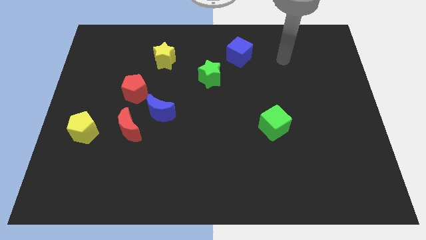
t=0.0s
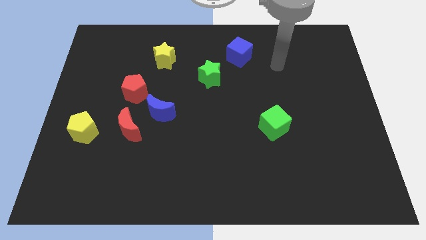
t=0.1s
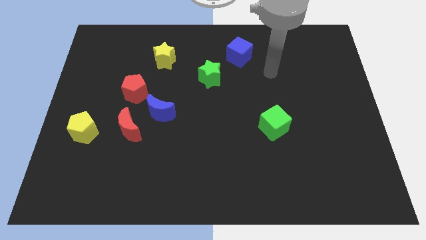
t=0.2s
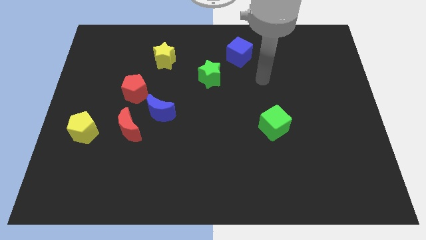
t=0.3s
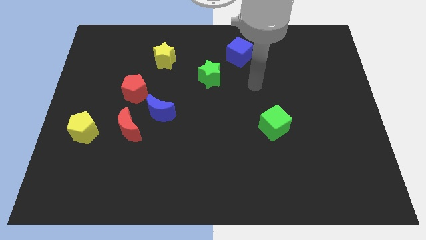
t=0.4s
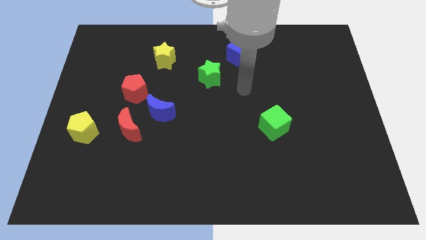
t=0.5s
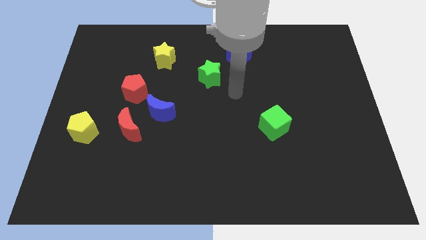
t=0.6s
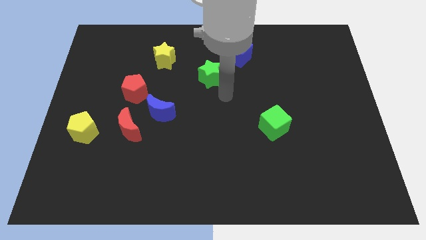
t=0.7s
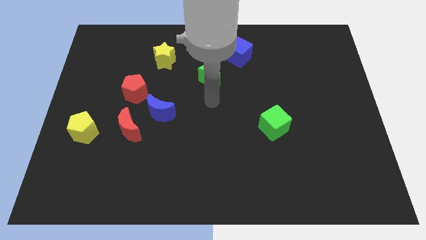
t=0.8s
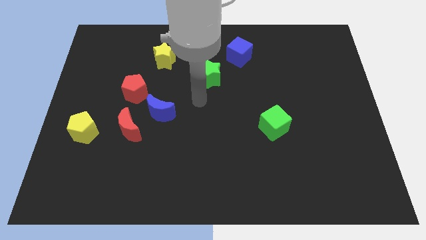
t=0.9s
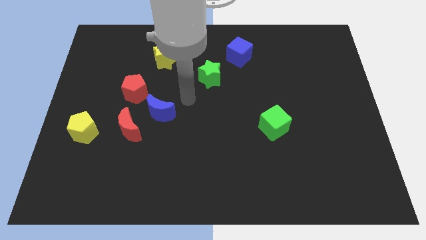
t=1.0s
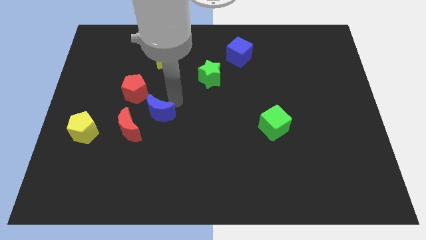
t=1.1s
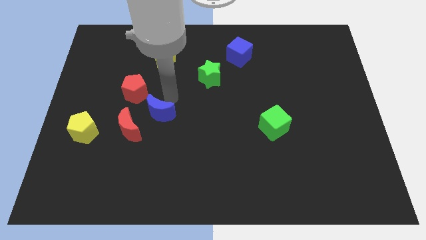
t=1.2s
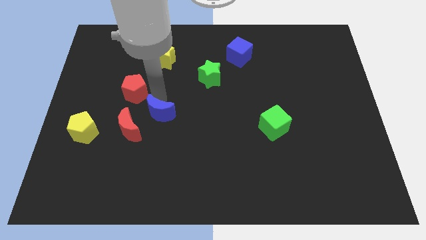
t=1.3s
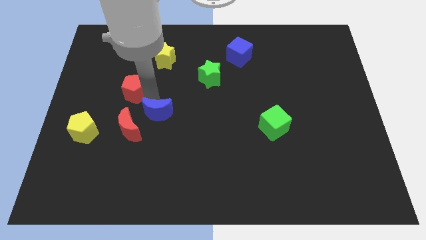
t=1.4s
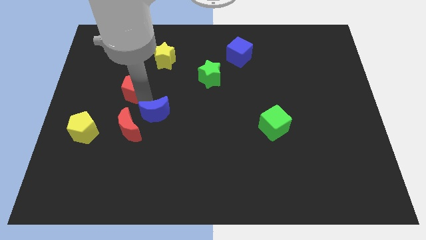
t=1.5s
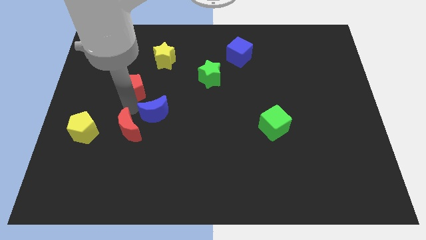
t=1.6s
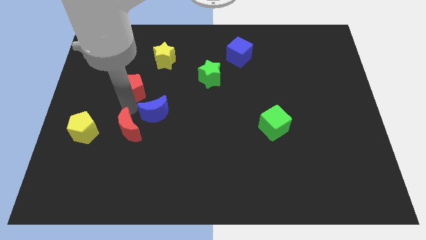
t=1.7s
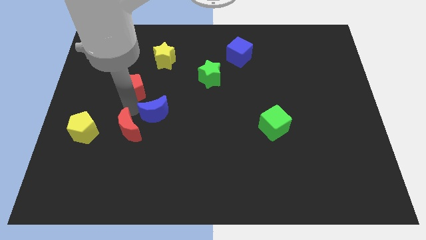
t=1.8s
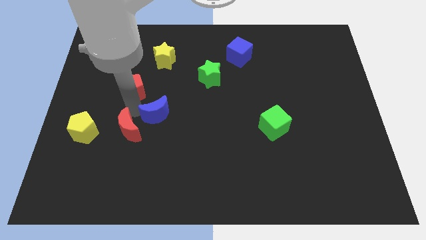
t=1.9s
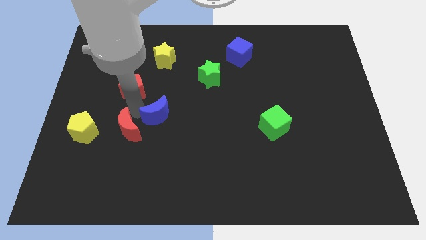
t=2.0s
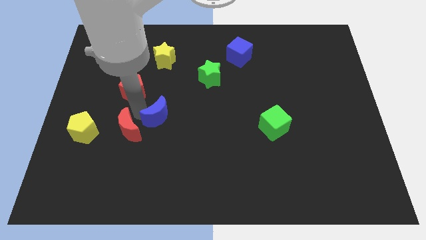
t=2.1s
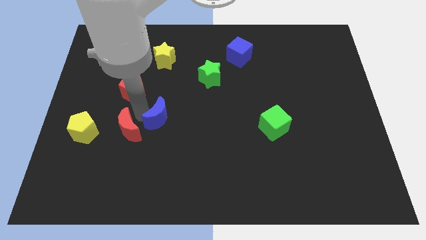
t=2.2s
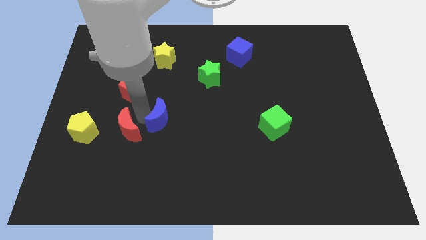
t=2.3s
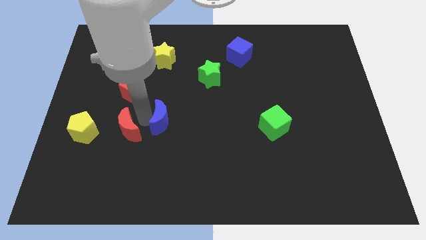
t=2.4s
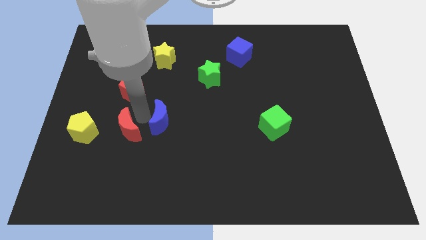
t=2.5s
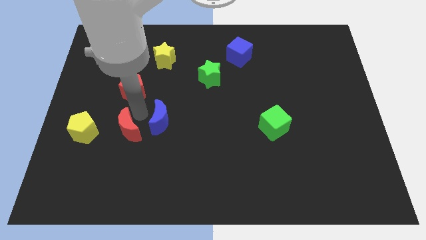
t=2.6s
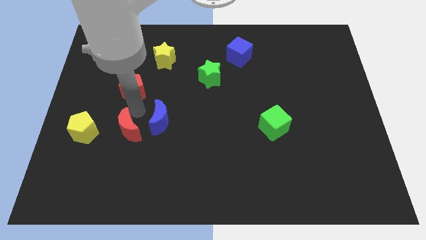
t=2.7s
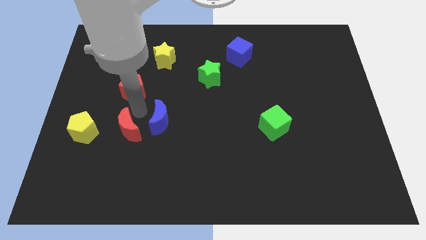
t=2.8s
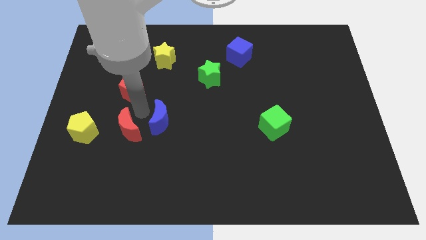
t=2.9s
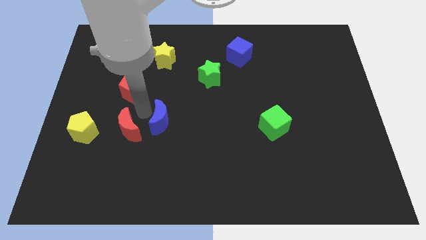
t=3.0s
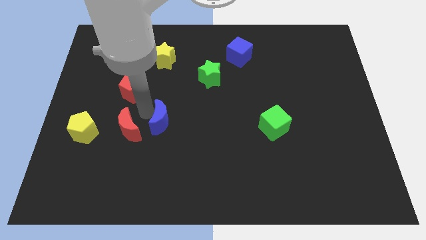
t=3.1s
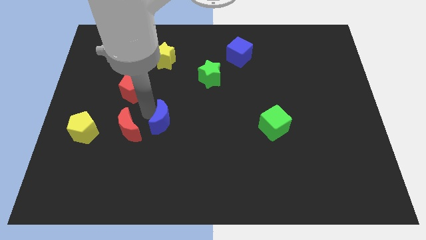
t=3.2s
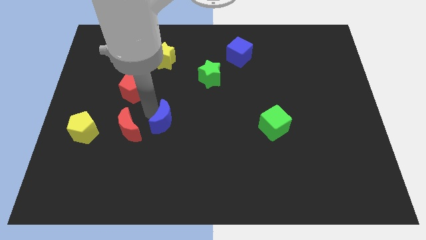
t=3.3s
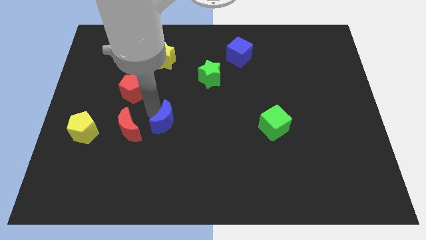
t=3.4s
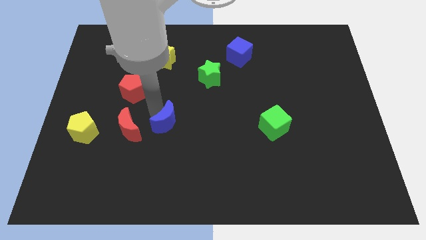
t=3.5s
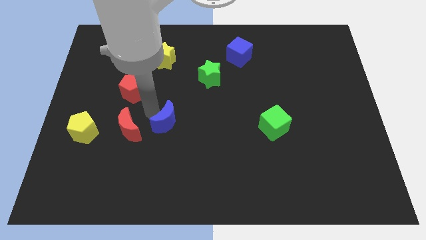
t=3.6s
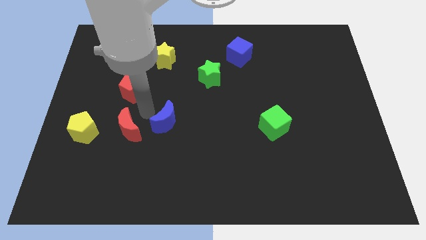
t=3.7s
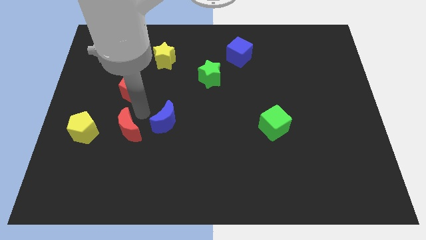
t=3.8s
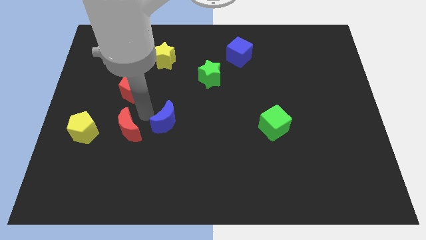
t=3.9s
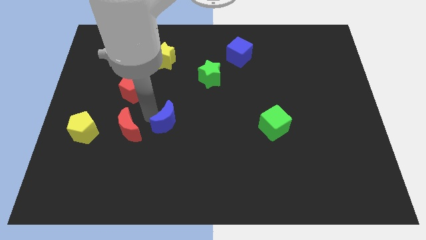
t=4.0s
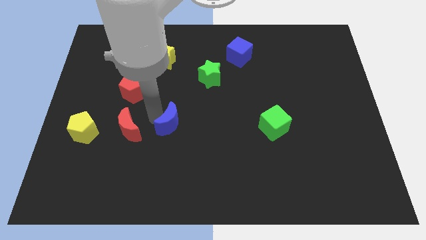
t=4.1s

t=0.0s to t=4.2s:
move the blue moon away from the red moon and red pentagon

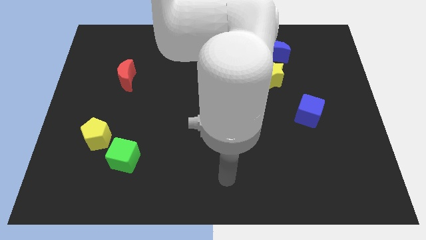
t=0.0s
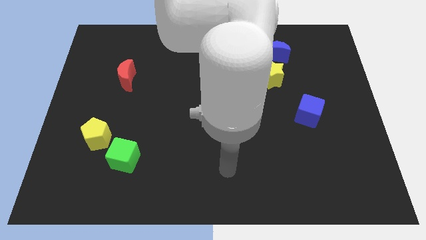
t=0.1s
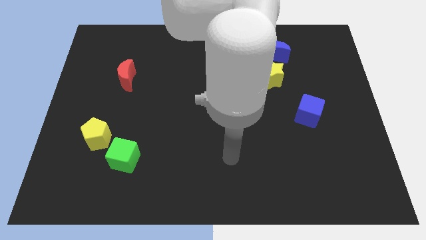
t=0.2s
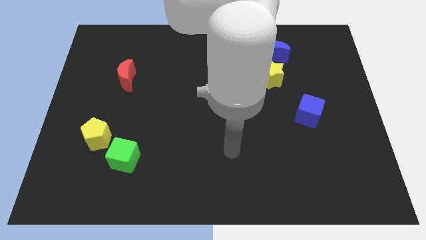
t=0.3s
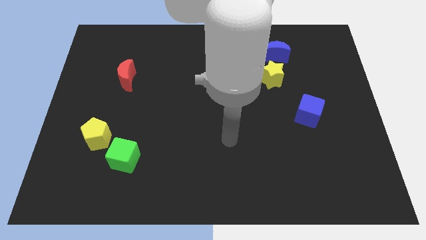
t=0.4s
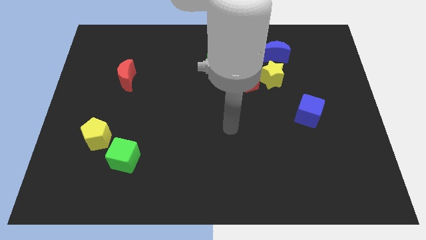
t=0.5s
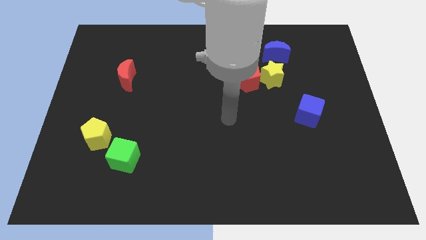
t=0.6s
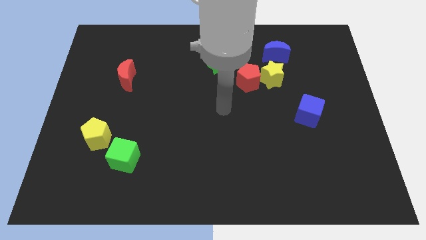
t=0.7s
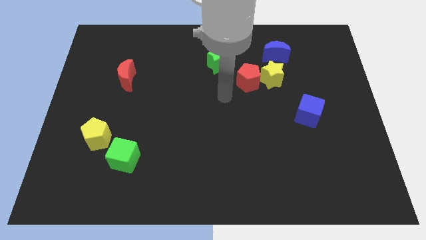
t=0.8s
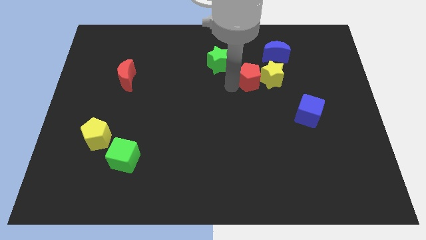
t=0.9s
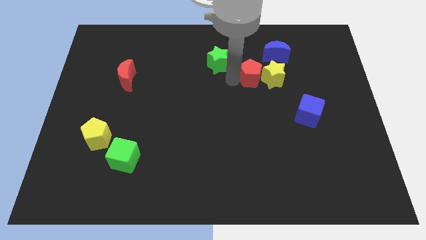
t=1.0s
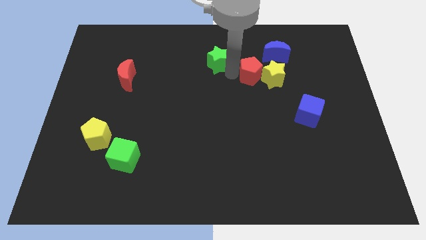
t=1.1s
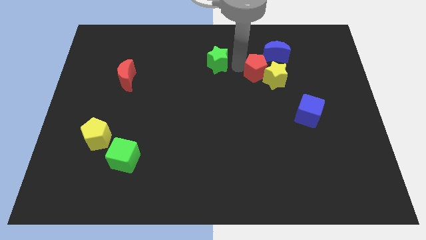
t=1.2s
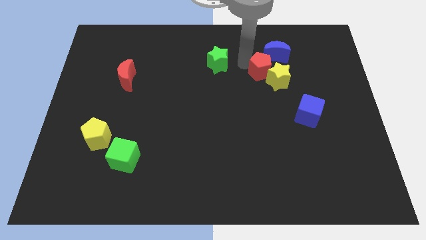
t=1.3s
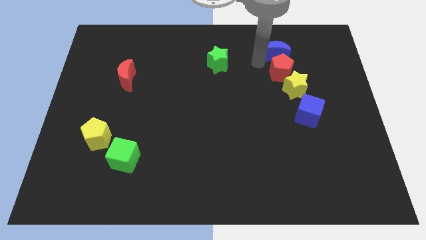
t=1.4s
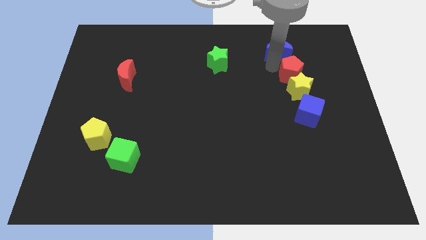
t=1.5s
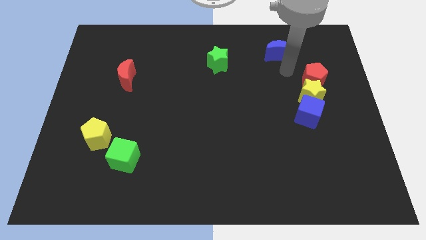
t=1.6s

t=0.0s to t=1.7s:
pull the yellow star apart from the red pentagon and blue moon

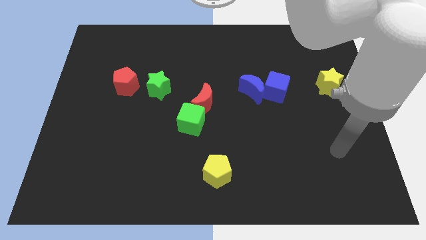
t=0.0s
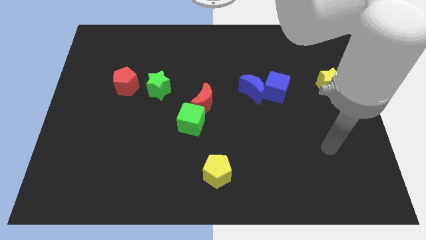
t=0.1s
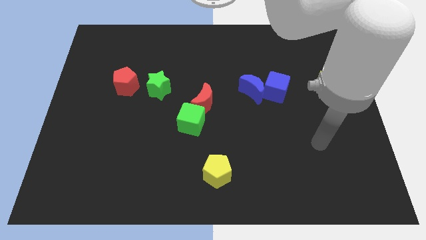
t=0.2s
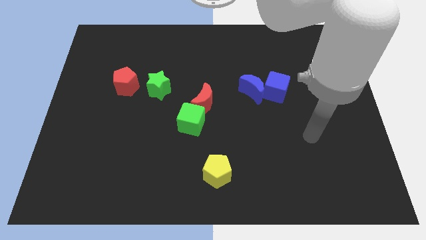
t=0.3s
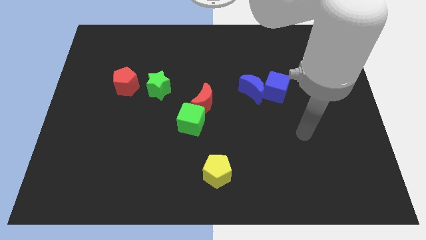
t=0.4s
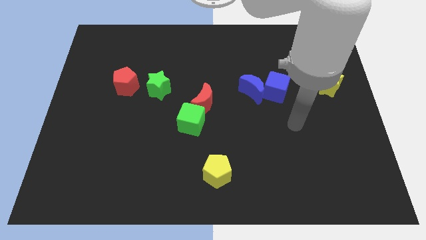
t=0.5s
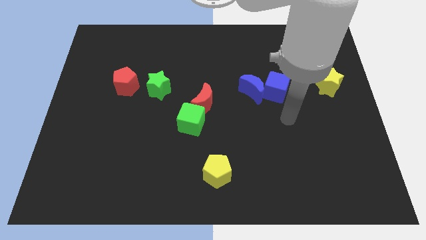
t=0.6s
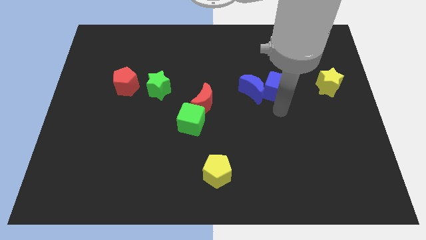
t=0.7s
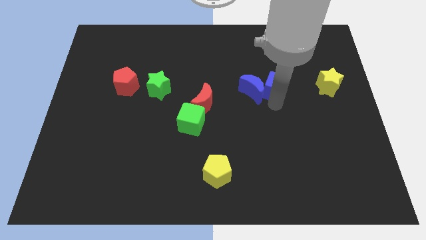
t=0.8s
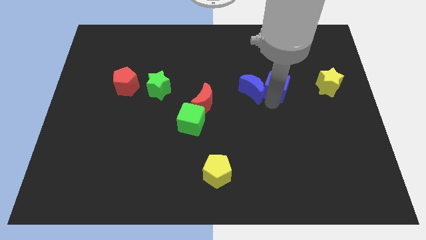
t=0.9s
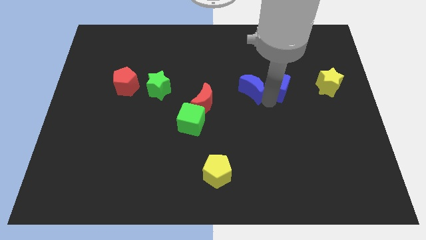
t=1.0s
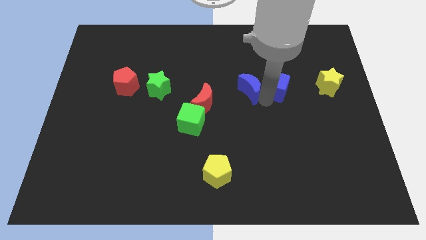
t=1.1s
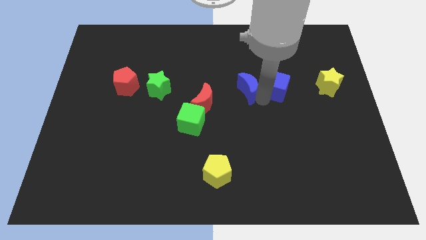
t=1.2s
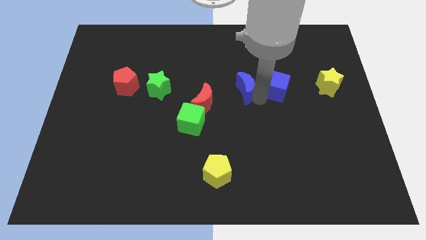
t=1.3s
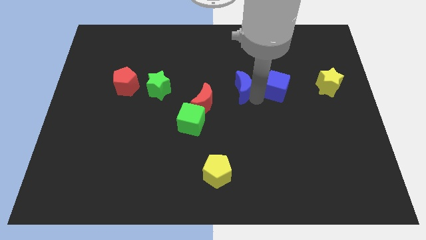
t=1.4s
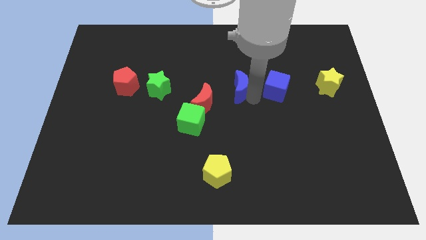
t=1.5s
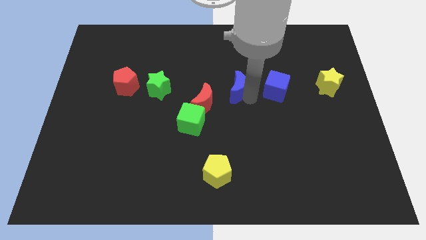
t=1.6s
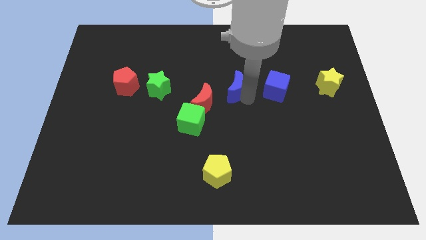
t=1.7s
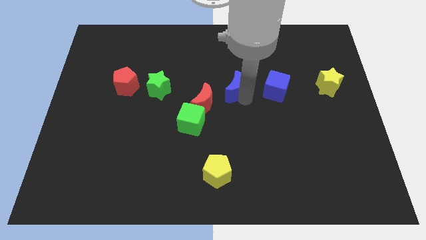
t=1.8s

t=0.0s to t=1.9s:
move the blue moon away from the blue cube

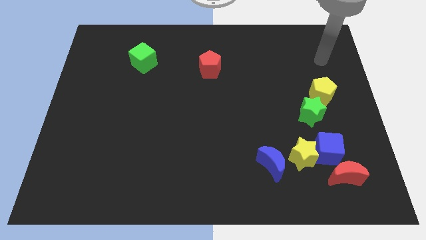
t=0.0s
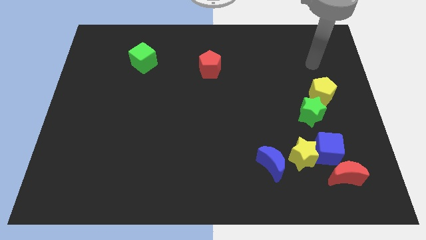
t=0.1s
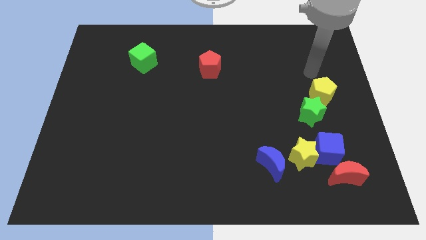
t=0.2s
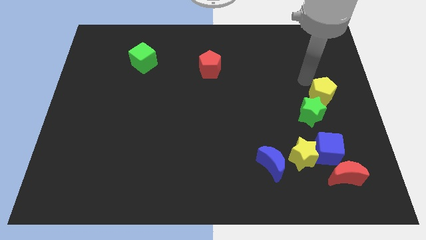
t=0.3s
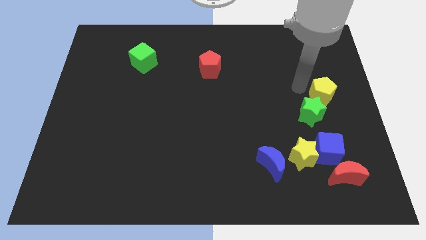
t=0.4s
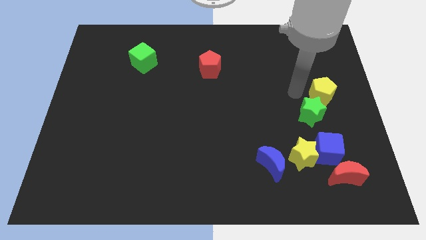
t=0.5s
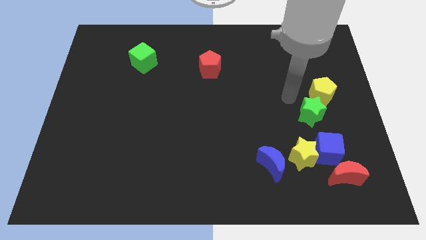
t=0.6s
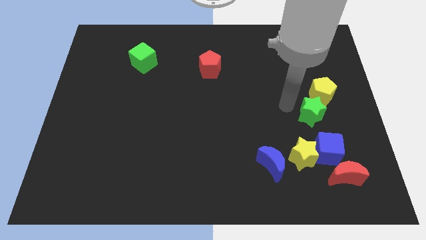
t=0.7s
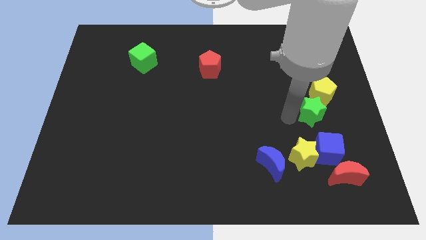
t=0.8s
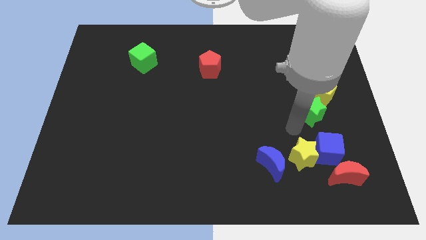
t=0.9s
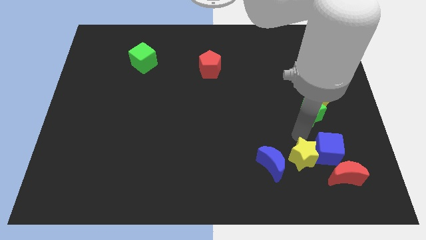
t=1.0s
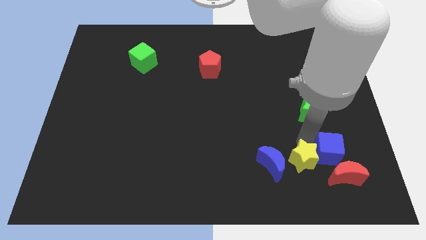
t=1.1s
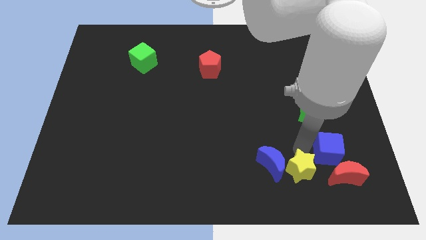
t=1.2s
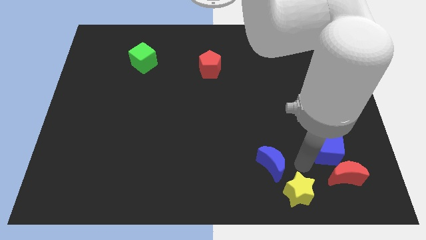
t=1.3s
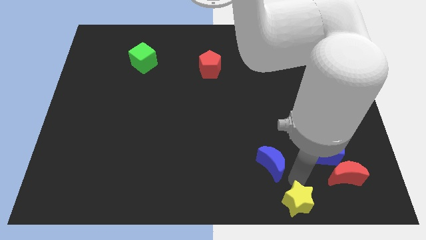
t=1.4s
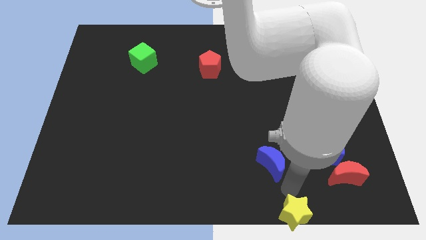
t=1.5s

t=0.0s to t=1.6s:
pull the blue moon apart from the yellow star
